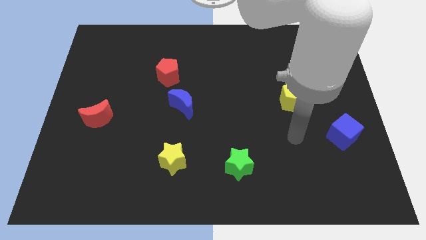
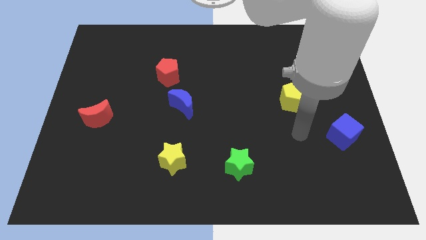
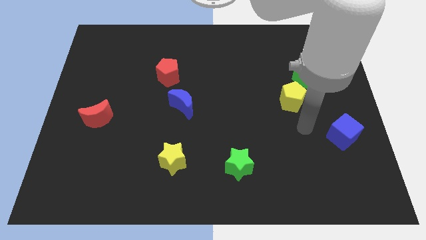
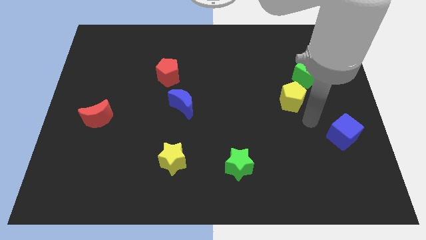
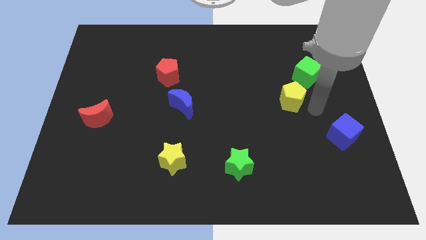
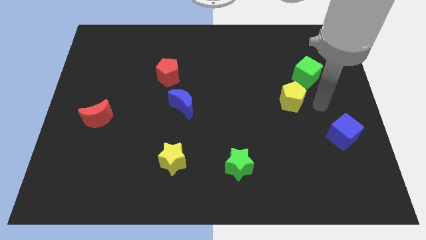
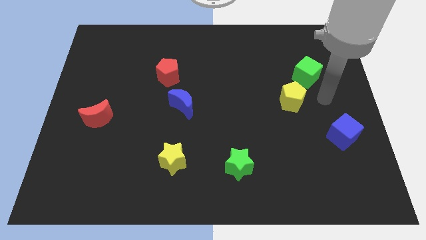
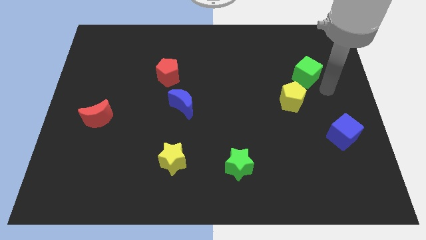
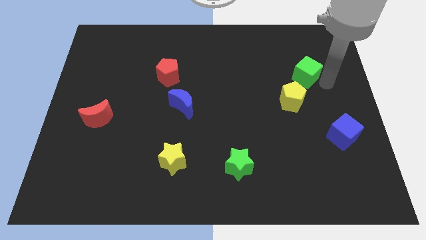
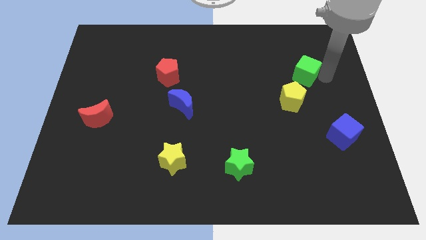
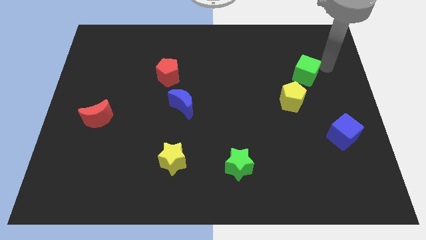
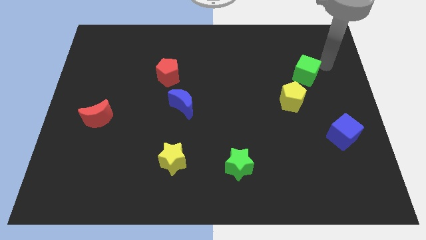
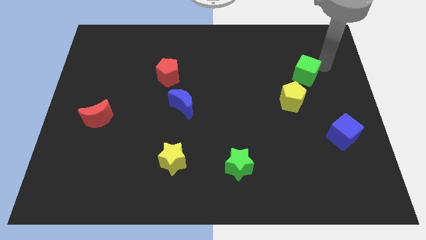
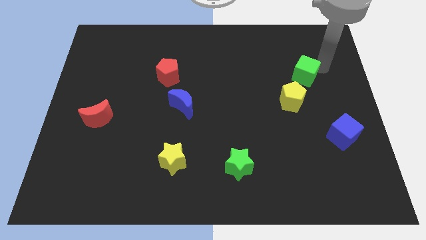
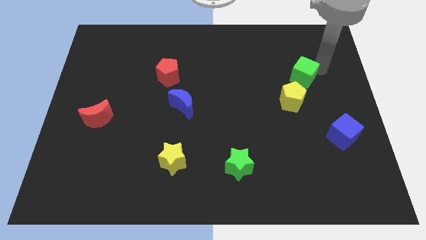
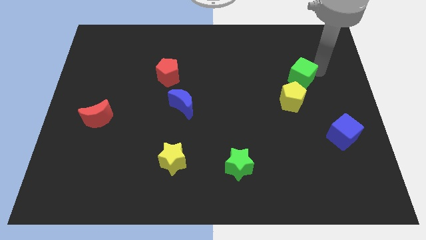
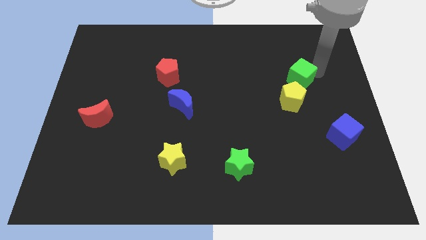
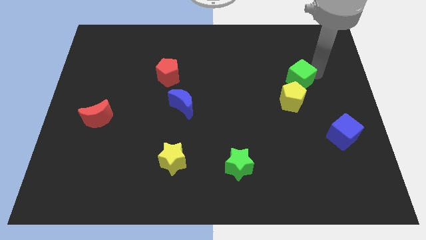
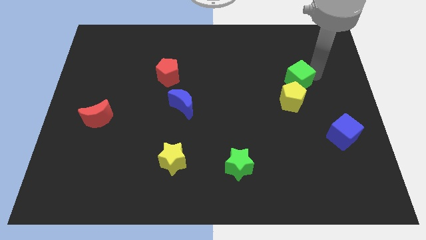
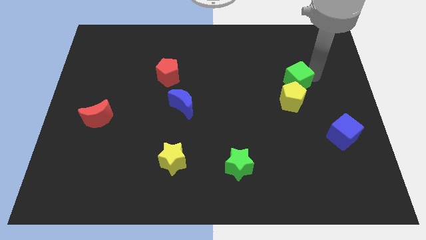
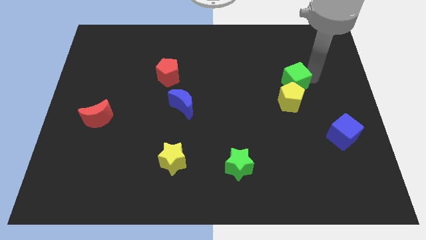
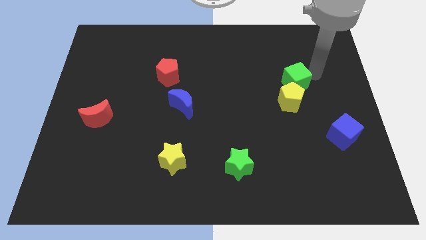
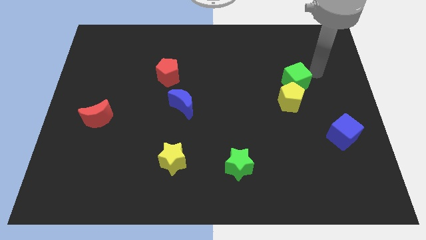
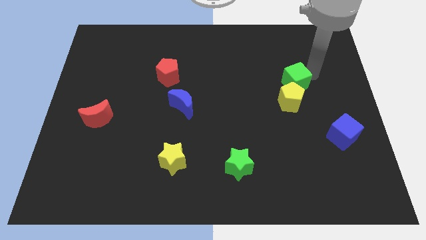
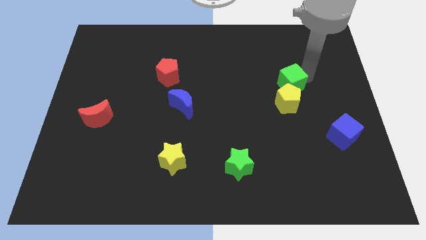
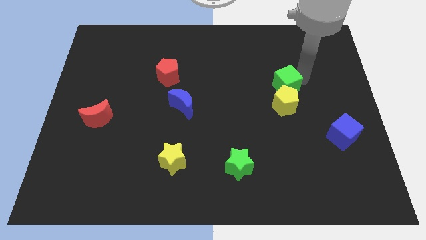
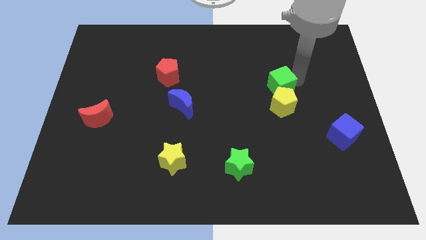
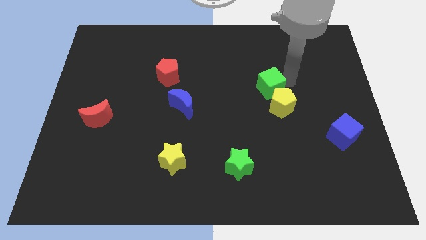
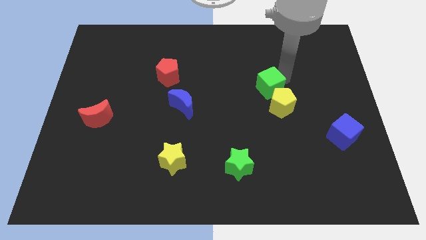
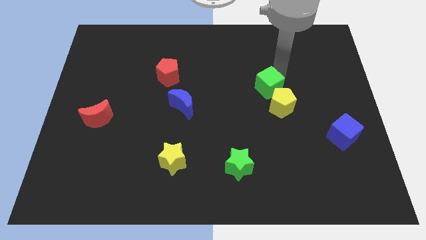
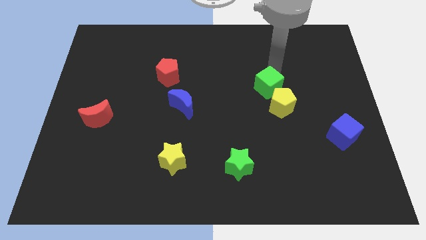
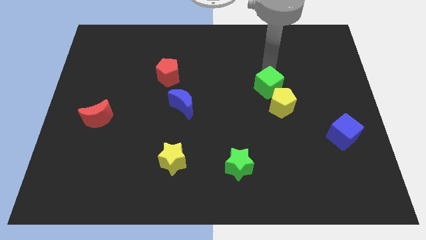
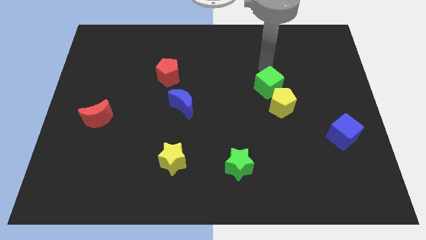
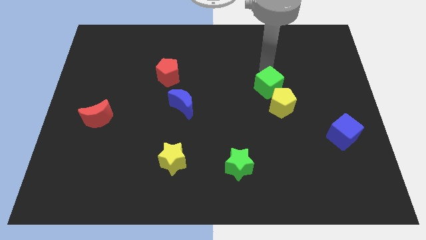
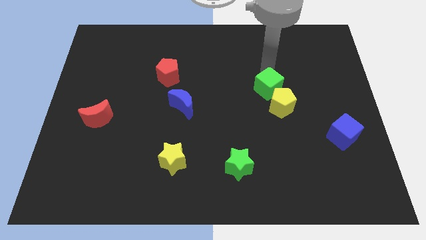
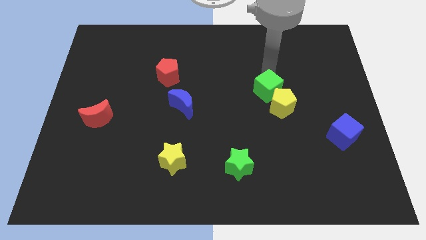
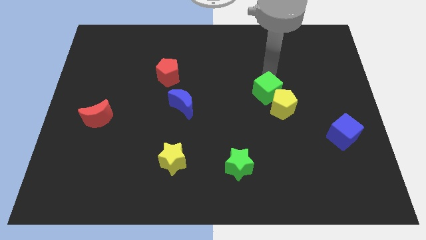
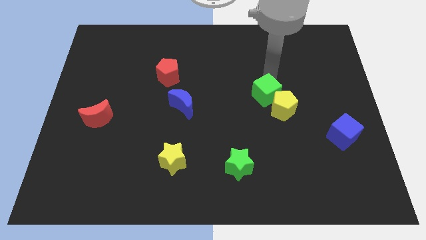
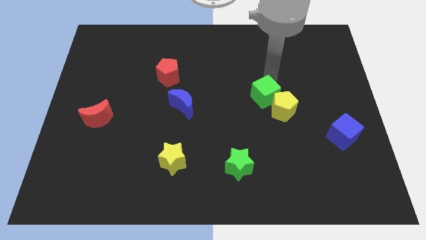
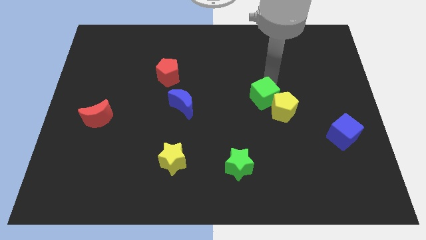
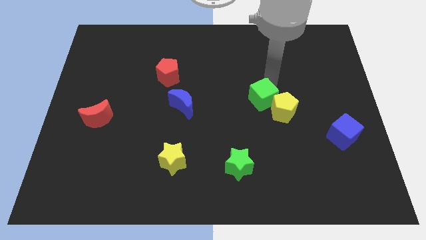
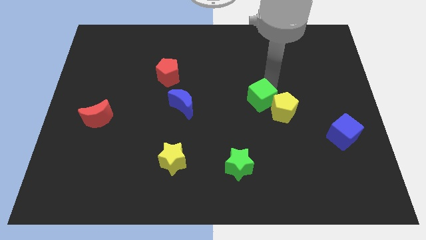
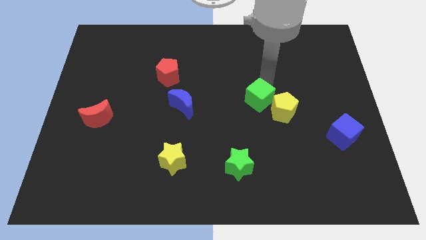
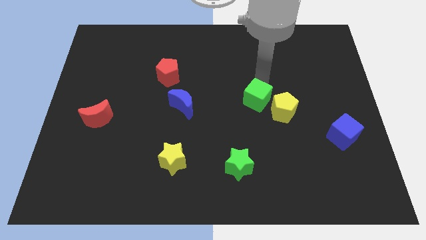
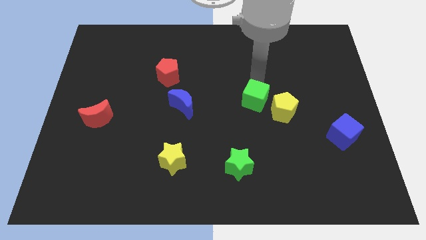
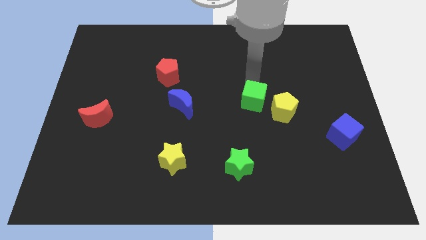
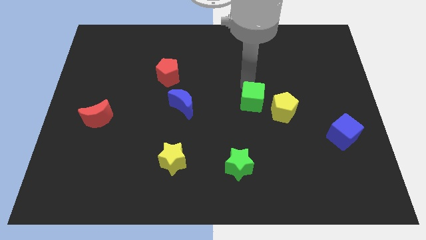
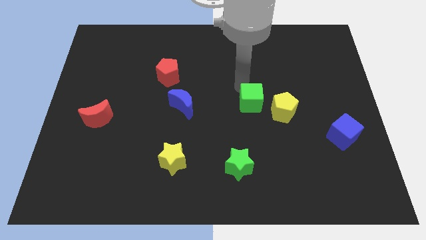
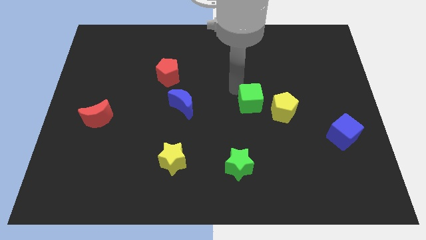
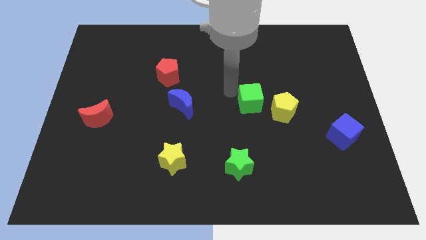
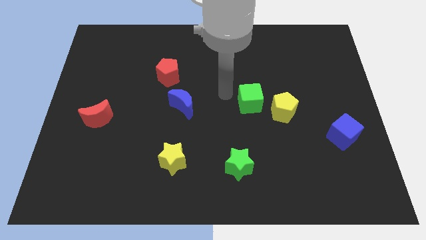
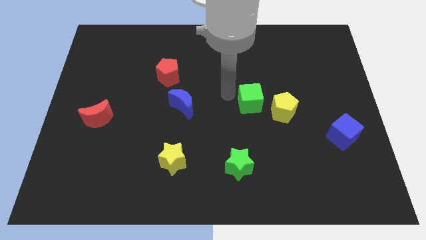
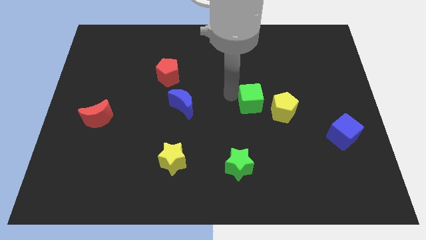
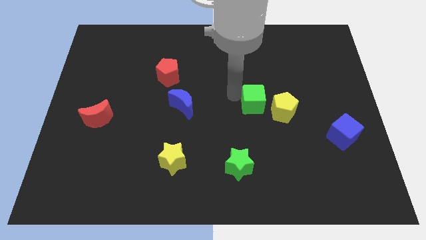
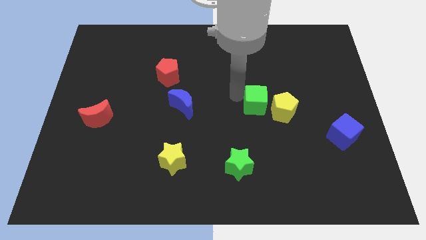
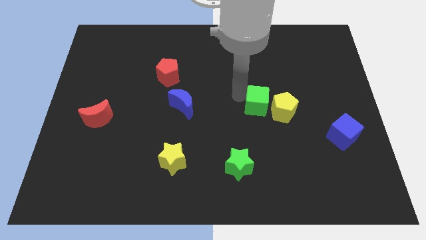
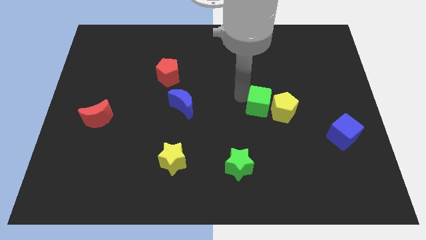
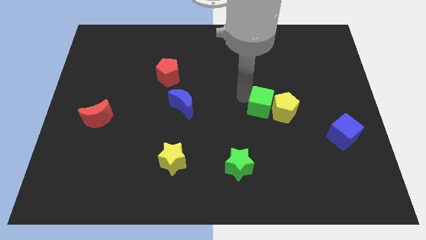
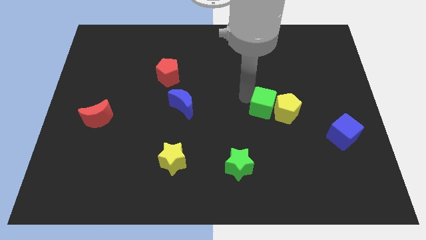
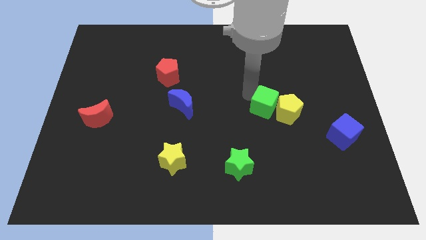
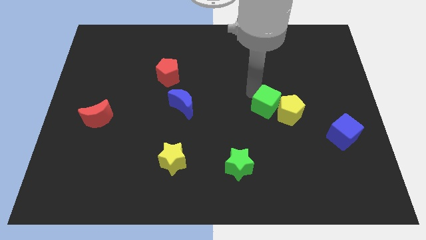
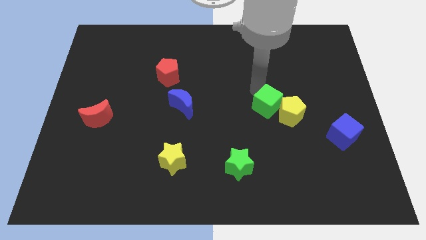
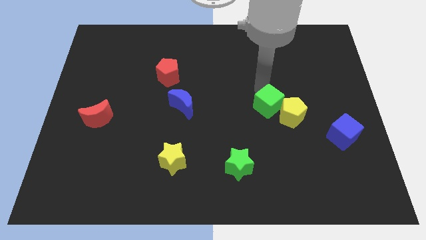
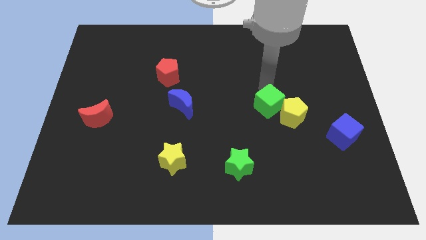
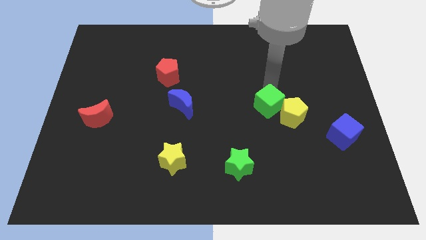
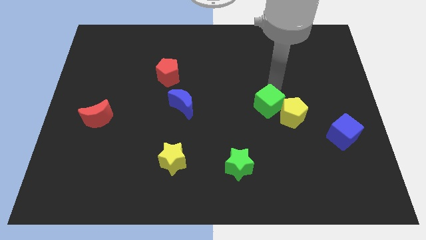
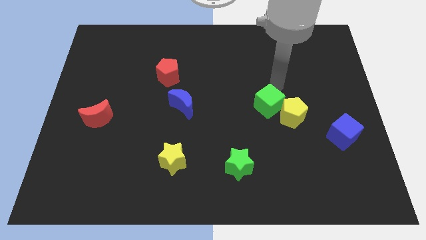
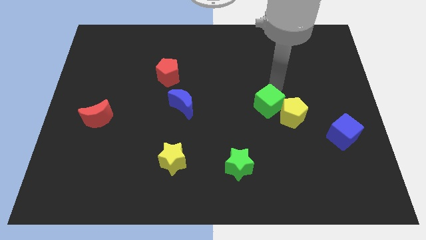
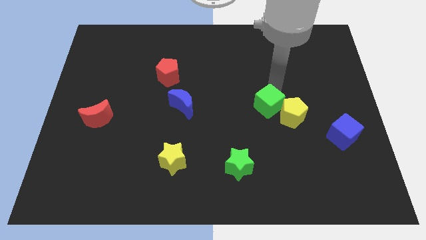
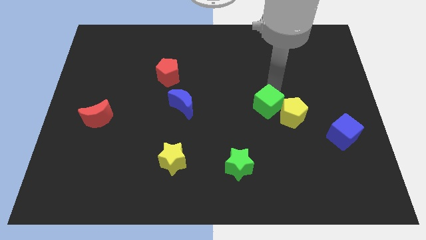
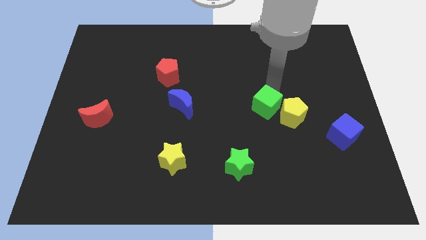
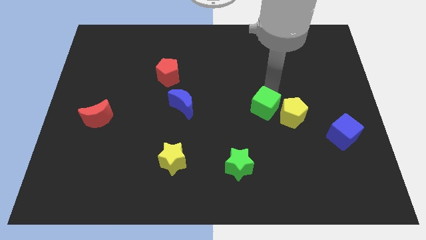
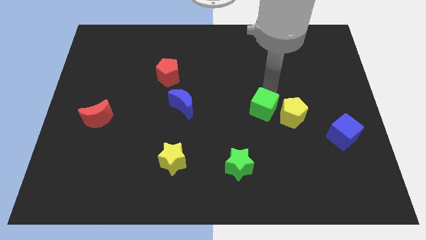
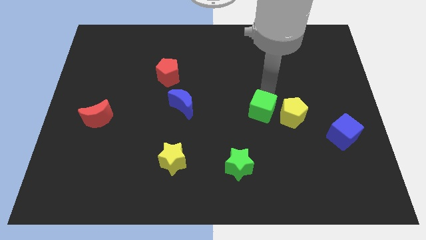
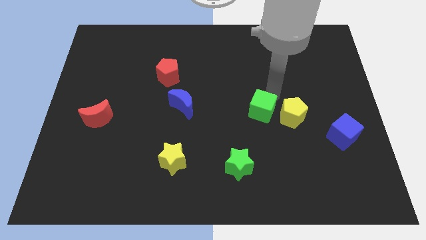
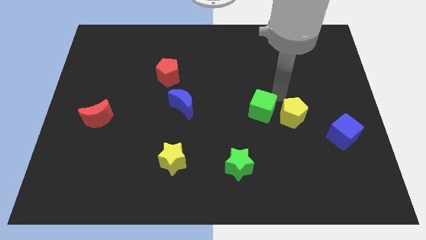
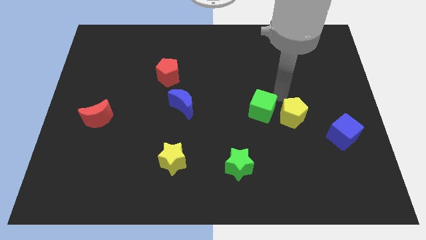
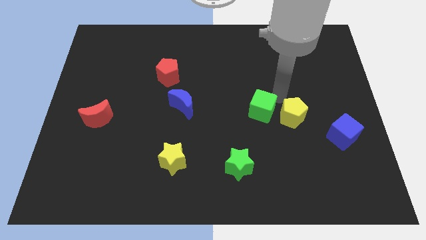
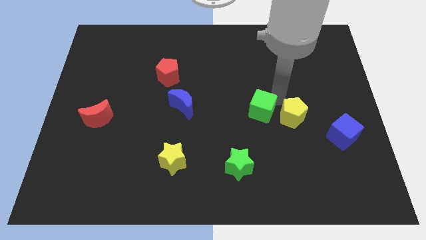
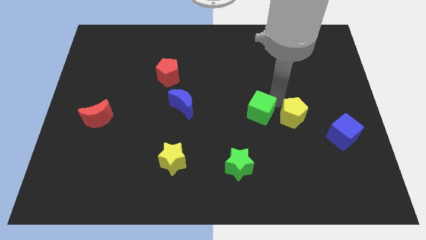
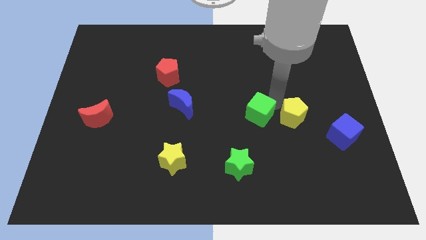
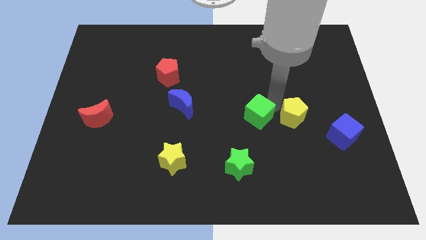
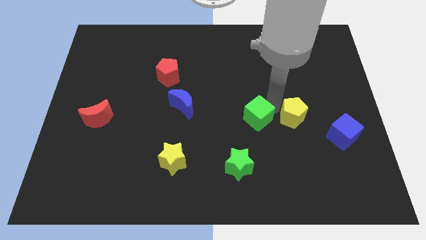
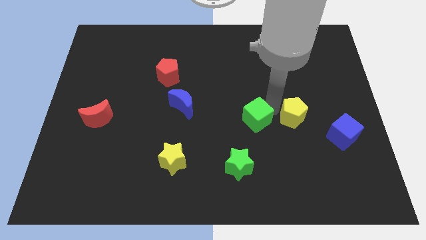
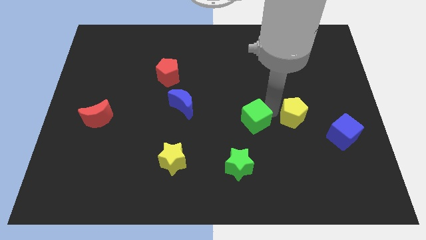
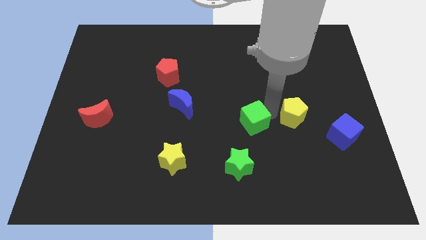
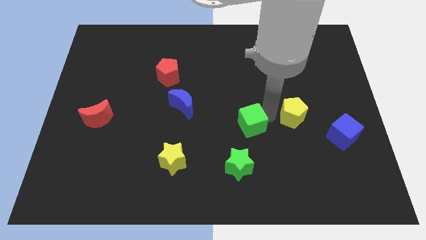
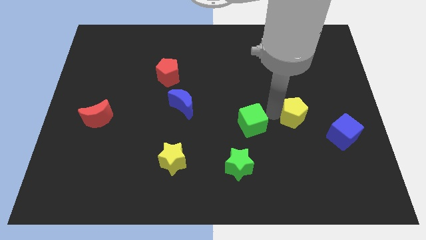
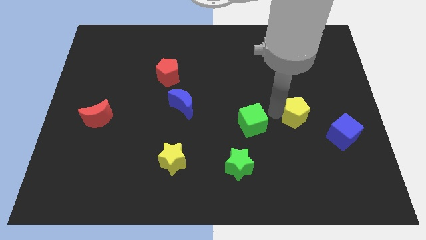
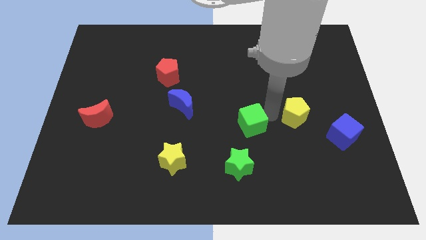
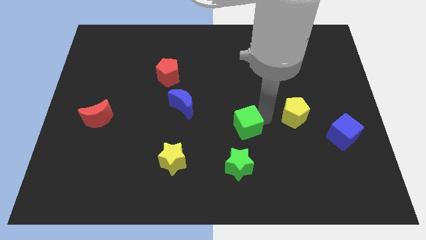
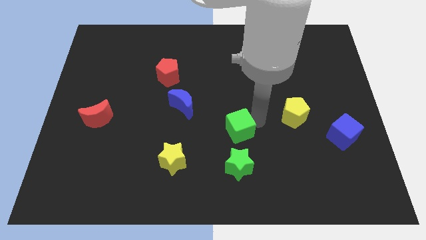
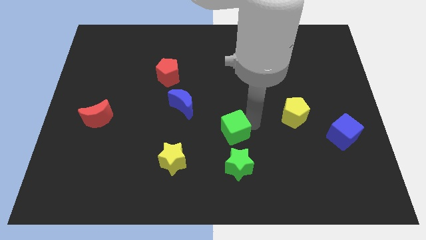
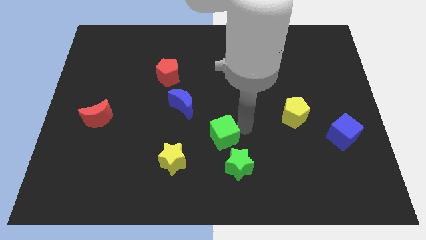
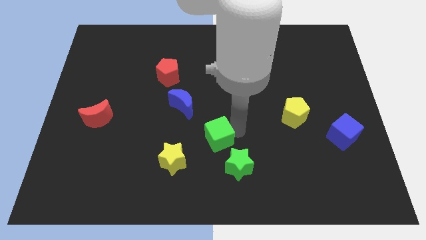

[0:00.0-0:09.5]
slide the green cube to the top right of the yellow star
